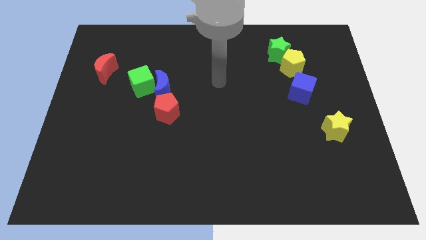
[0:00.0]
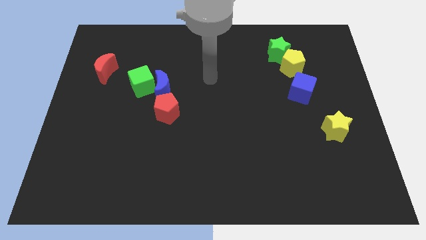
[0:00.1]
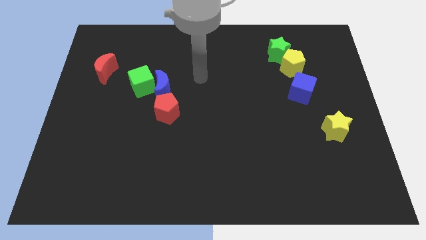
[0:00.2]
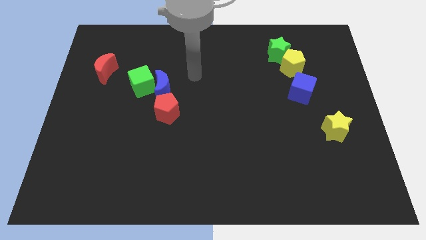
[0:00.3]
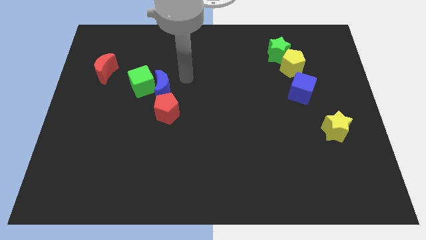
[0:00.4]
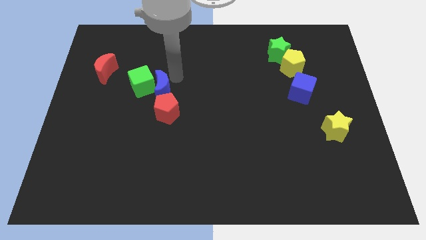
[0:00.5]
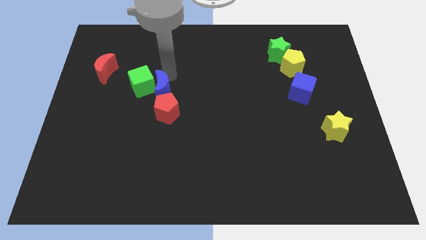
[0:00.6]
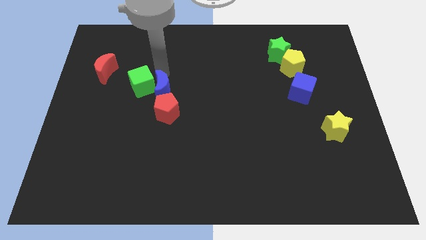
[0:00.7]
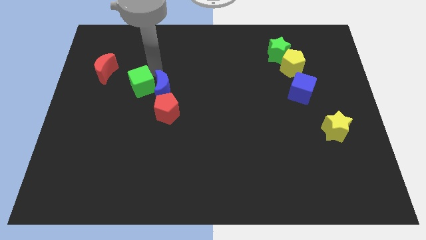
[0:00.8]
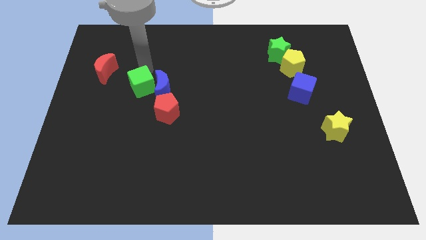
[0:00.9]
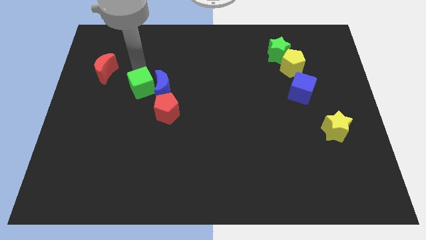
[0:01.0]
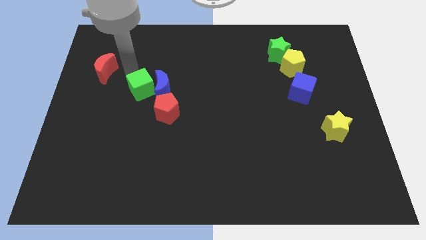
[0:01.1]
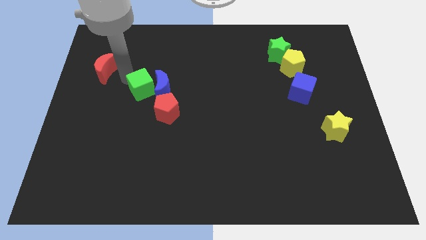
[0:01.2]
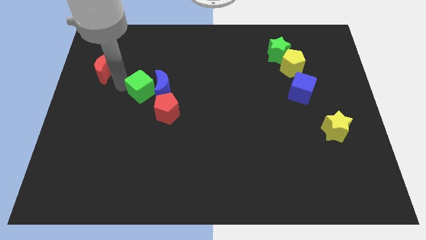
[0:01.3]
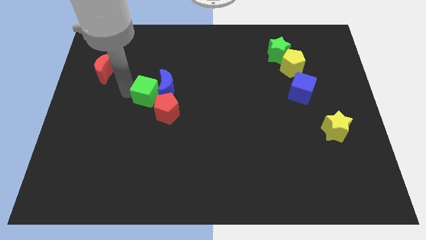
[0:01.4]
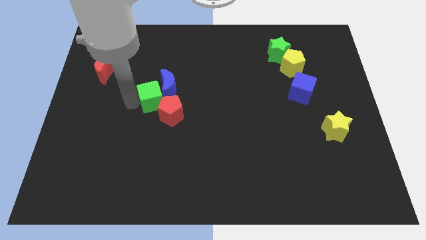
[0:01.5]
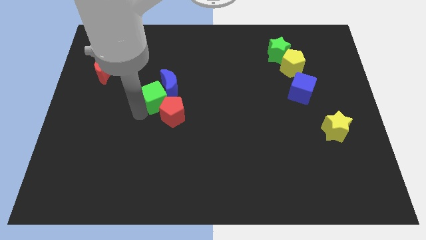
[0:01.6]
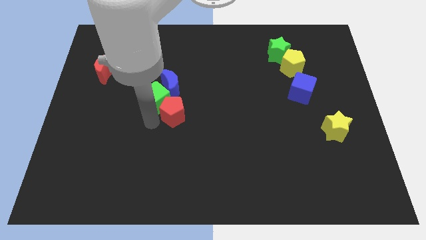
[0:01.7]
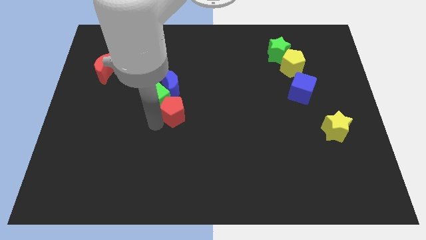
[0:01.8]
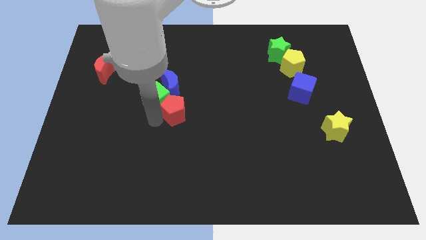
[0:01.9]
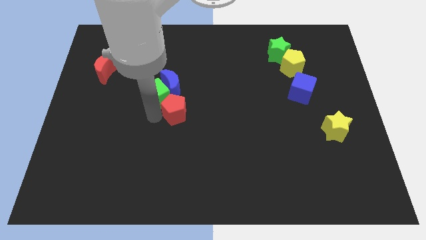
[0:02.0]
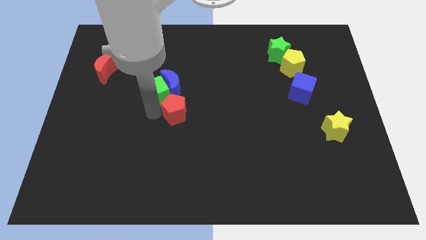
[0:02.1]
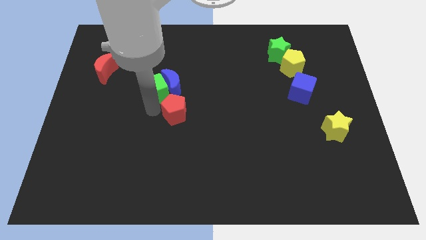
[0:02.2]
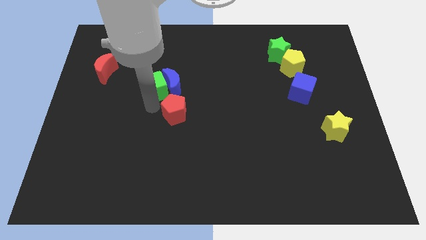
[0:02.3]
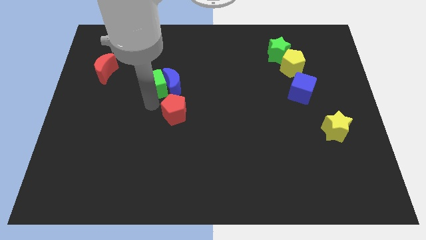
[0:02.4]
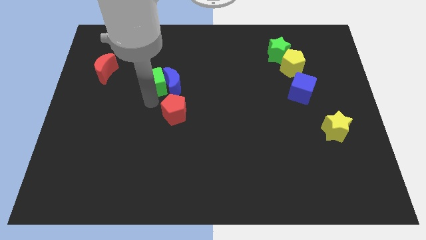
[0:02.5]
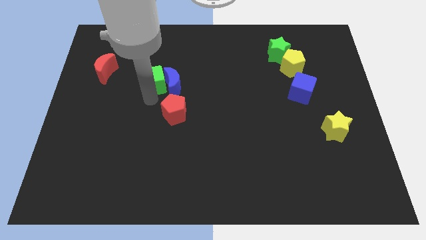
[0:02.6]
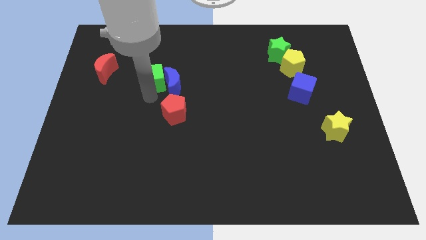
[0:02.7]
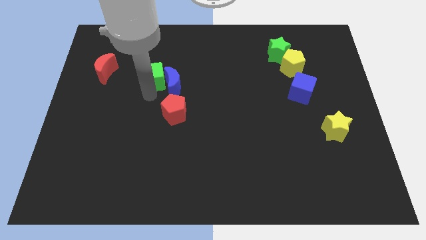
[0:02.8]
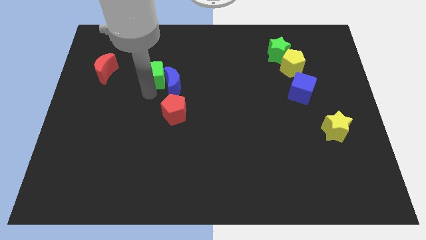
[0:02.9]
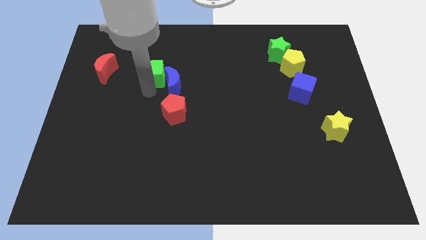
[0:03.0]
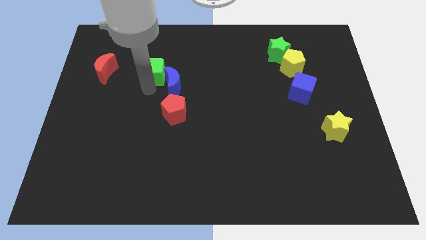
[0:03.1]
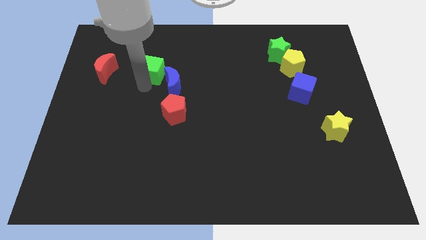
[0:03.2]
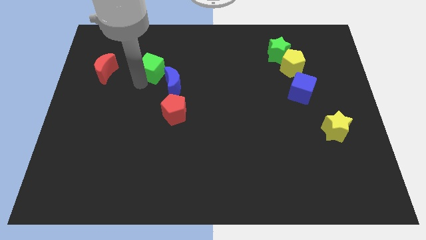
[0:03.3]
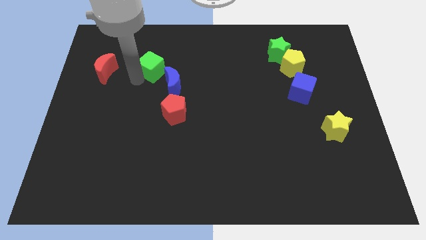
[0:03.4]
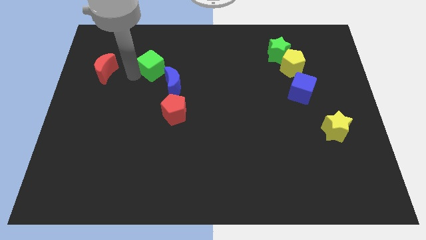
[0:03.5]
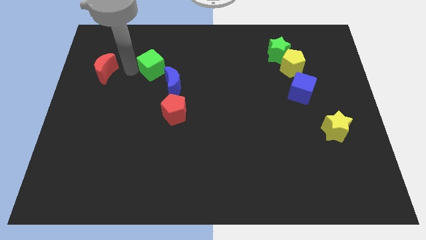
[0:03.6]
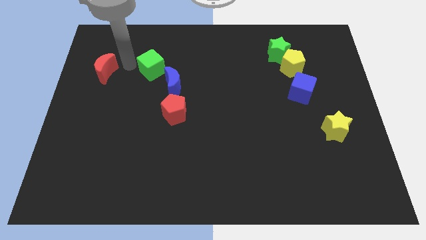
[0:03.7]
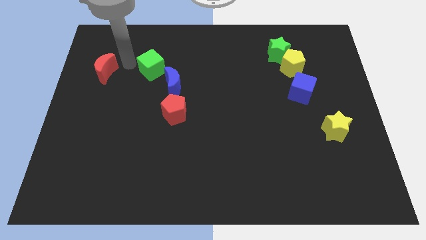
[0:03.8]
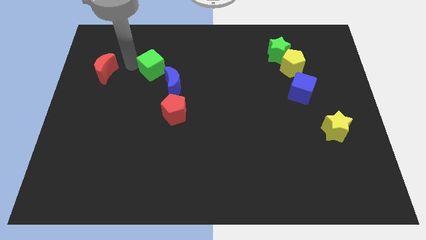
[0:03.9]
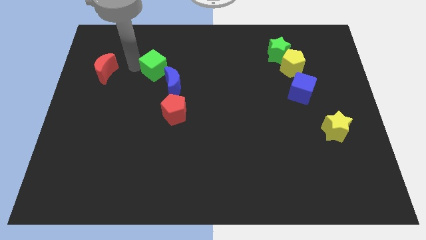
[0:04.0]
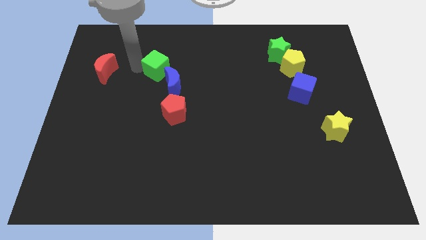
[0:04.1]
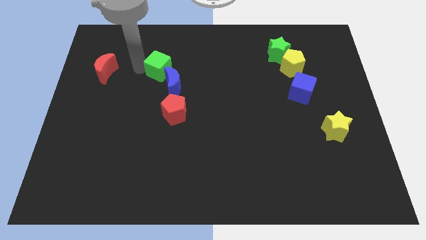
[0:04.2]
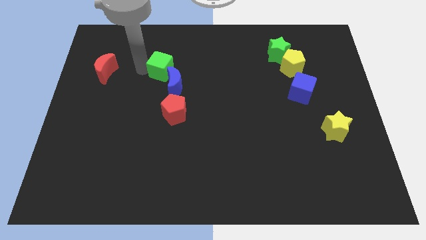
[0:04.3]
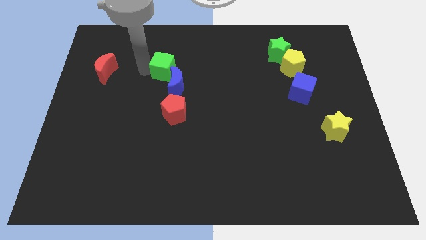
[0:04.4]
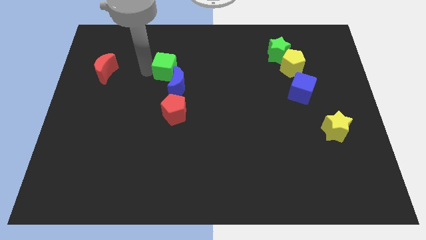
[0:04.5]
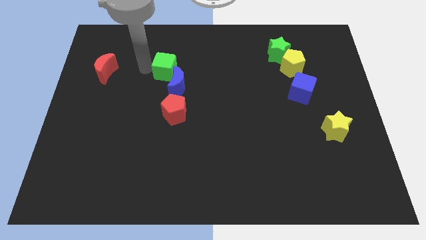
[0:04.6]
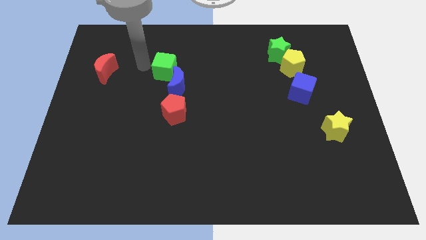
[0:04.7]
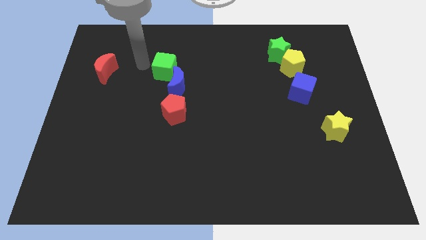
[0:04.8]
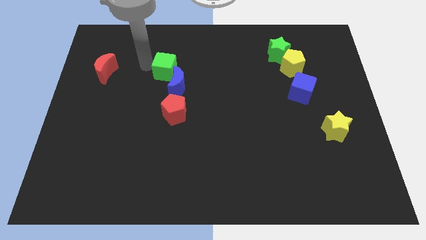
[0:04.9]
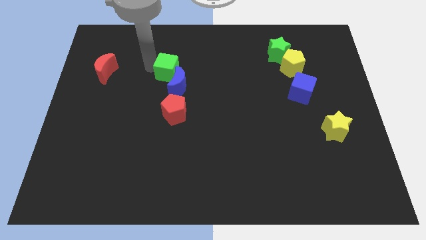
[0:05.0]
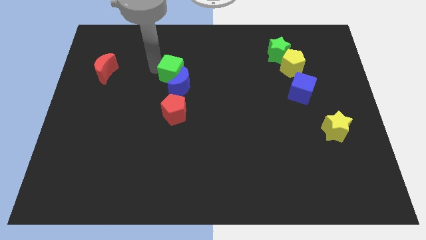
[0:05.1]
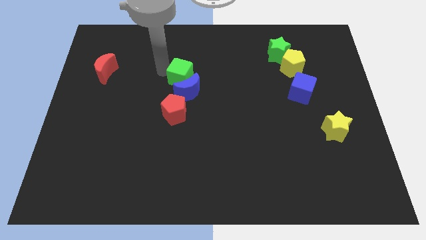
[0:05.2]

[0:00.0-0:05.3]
slide the green cube slightly to the right

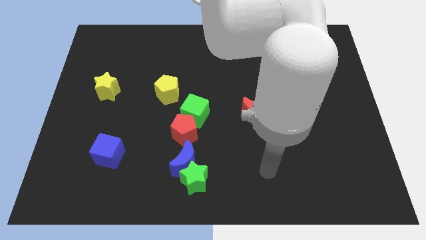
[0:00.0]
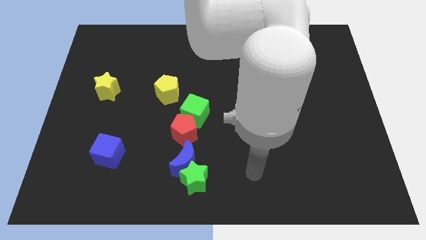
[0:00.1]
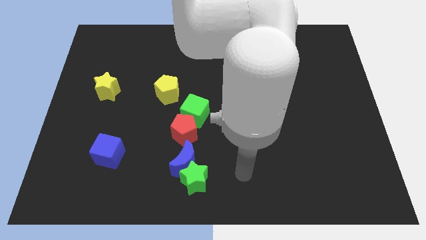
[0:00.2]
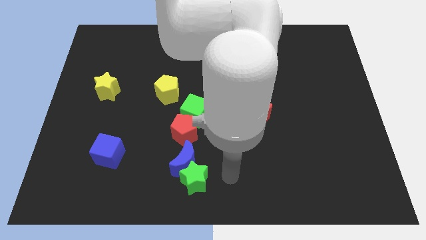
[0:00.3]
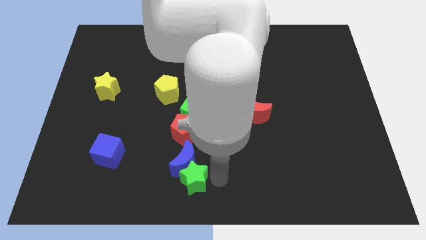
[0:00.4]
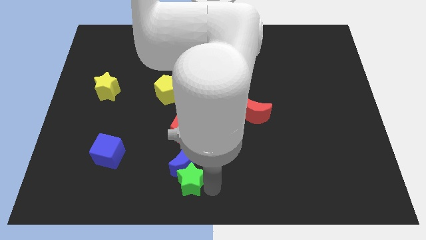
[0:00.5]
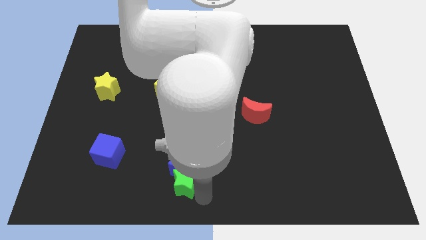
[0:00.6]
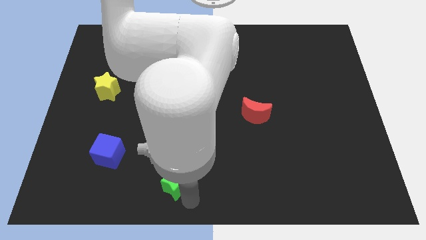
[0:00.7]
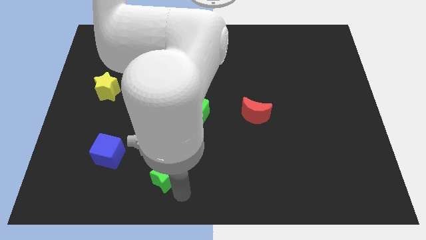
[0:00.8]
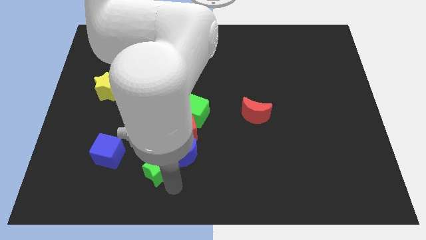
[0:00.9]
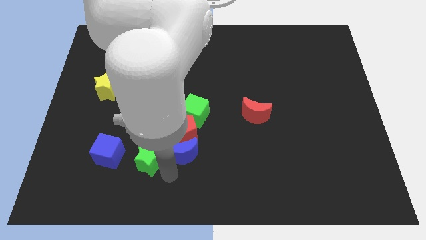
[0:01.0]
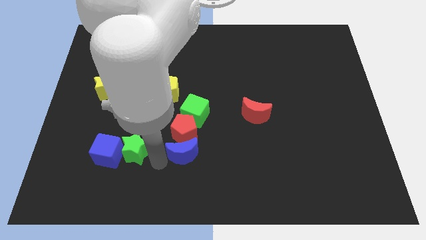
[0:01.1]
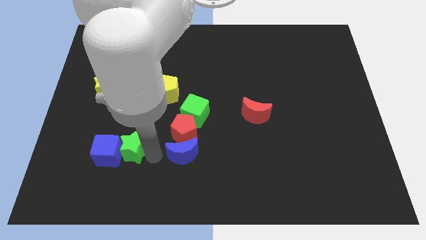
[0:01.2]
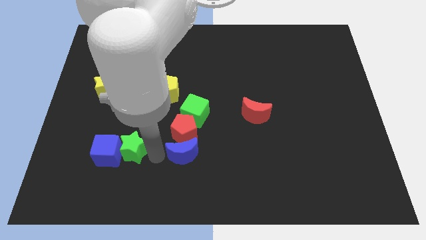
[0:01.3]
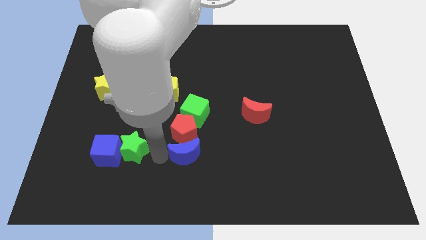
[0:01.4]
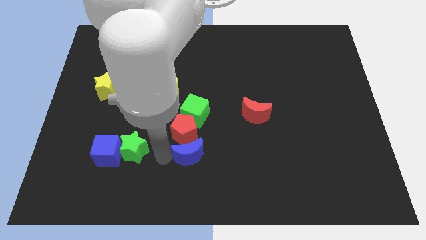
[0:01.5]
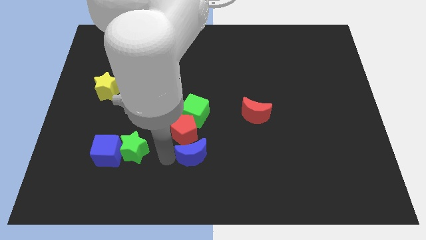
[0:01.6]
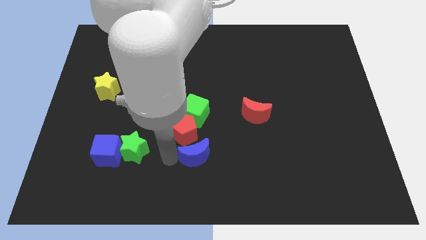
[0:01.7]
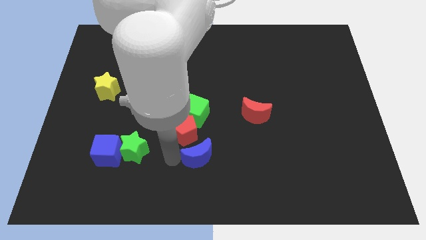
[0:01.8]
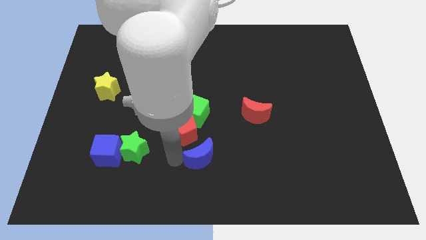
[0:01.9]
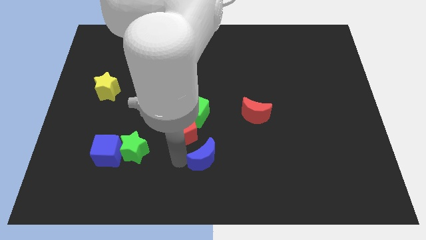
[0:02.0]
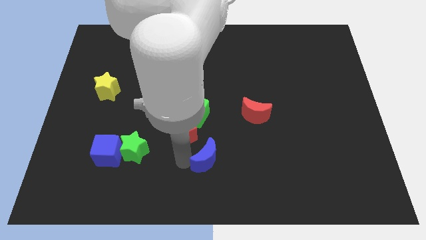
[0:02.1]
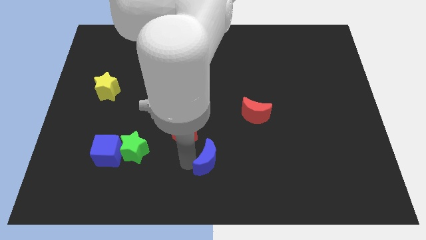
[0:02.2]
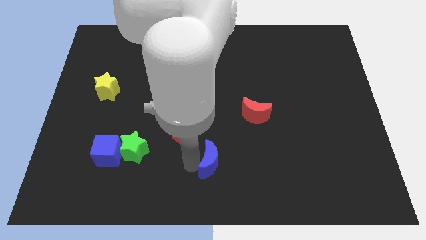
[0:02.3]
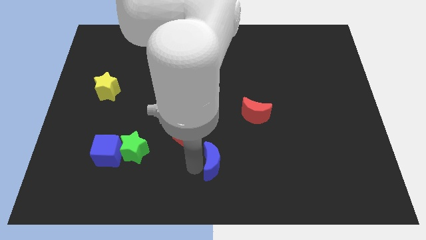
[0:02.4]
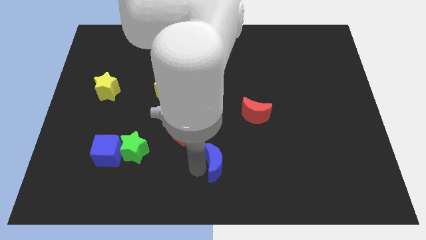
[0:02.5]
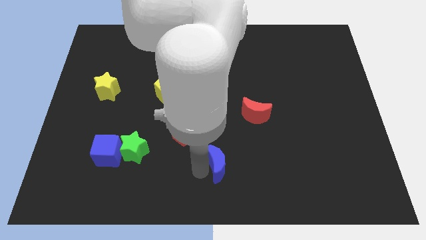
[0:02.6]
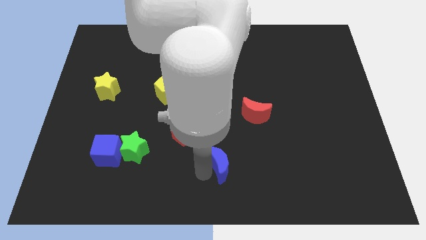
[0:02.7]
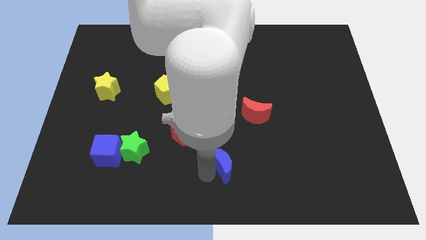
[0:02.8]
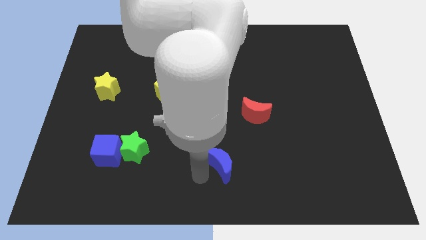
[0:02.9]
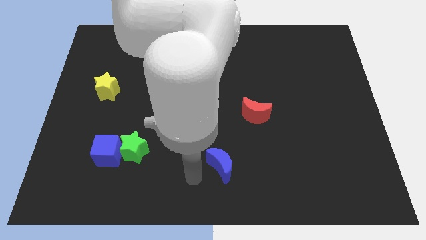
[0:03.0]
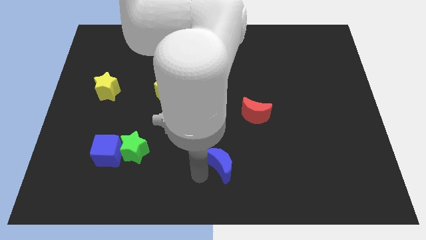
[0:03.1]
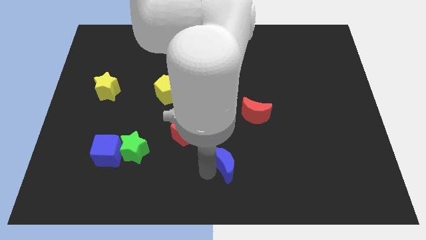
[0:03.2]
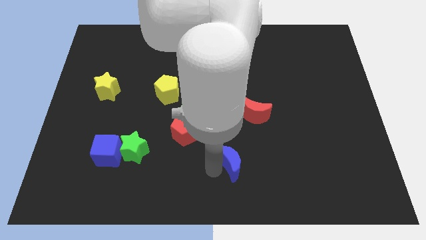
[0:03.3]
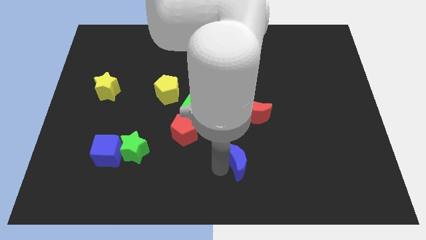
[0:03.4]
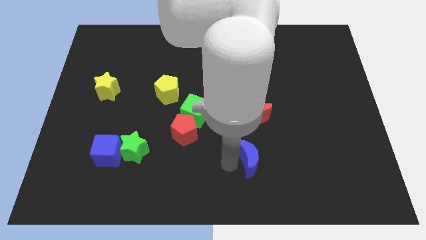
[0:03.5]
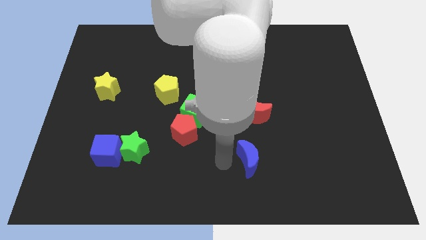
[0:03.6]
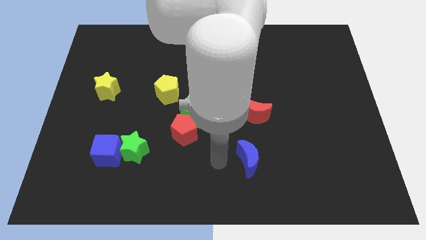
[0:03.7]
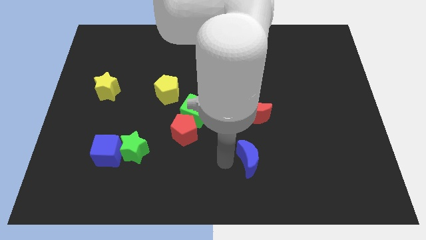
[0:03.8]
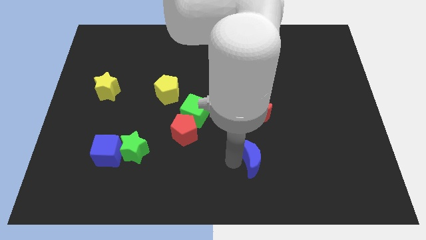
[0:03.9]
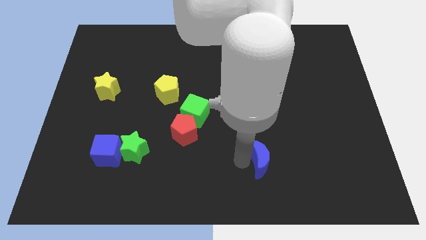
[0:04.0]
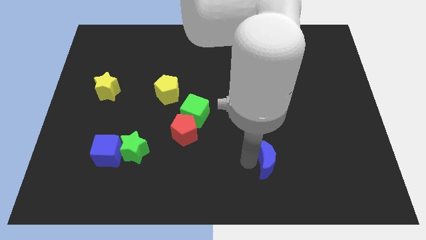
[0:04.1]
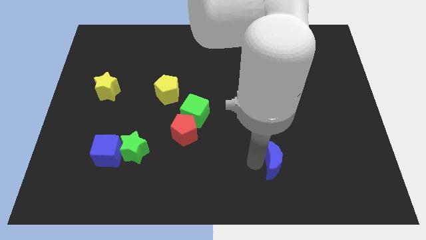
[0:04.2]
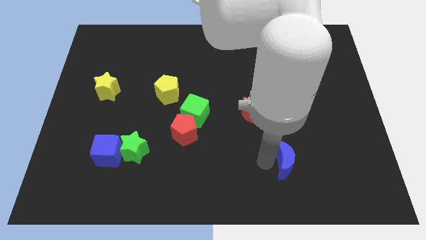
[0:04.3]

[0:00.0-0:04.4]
push the blue moon to the right
